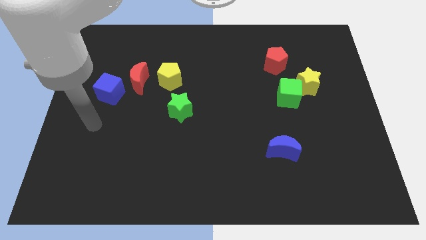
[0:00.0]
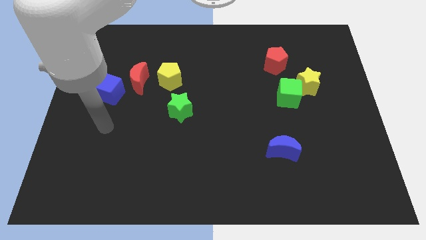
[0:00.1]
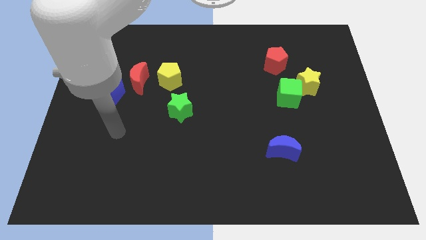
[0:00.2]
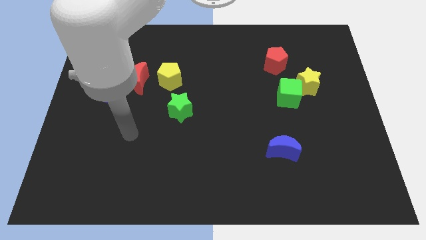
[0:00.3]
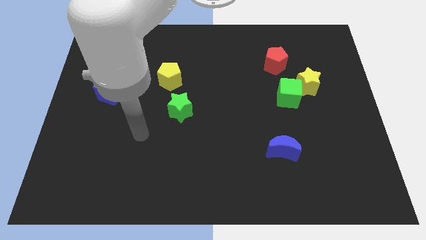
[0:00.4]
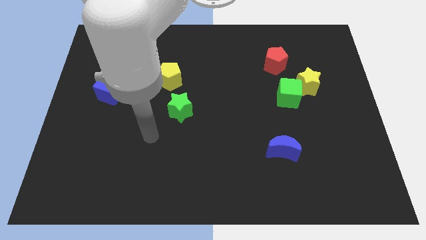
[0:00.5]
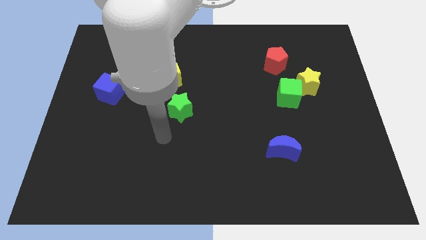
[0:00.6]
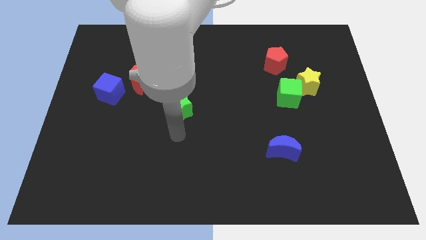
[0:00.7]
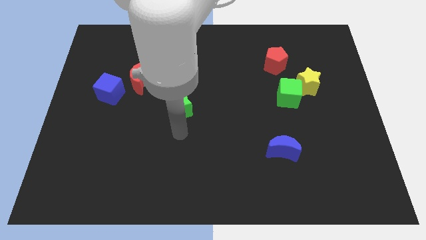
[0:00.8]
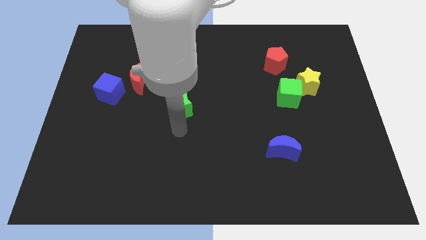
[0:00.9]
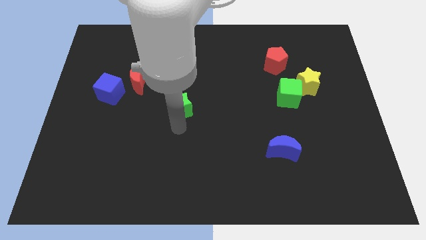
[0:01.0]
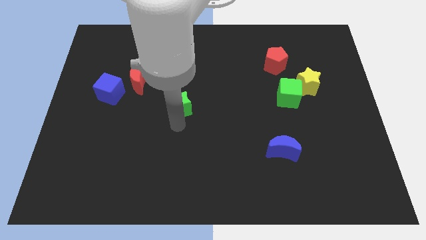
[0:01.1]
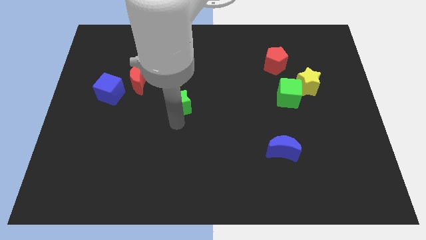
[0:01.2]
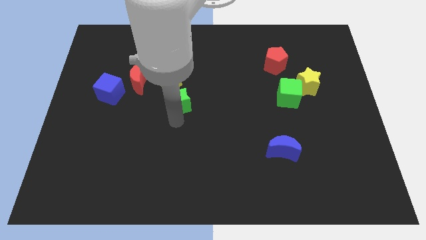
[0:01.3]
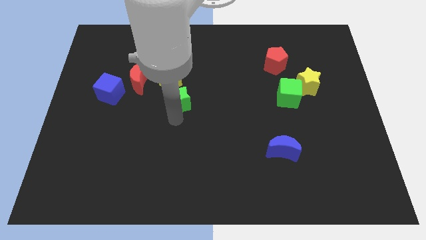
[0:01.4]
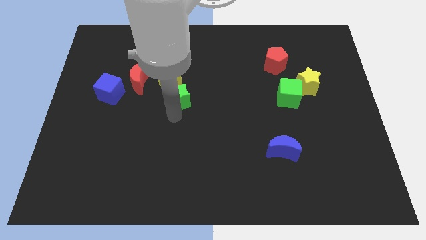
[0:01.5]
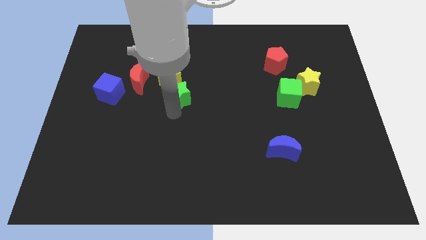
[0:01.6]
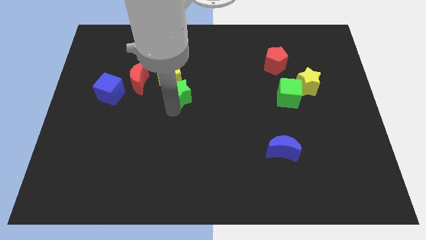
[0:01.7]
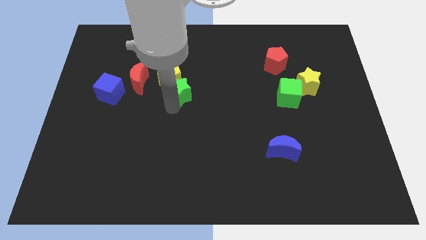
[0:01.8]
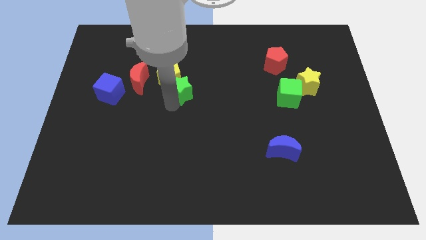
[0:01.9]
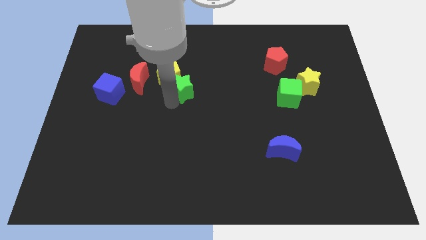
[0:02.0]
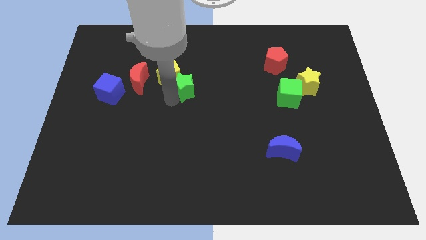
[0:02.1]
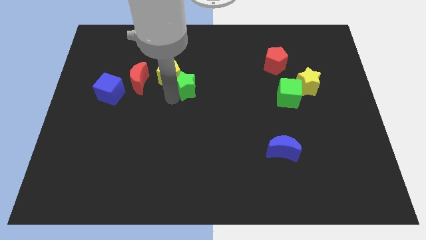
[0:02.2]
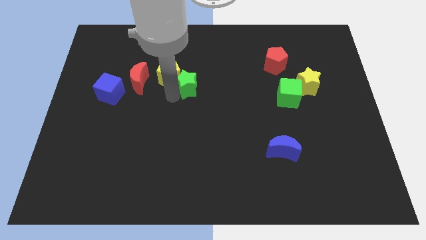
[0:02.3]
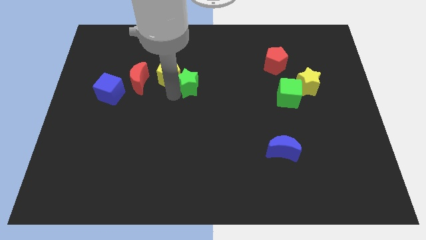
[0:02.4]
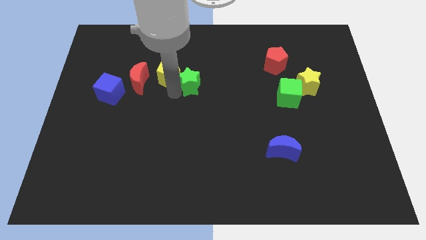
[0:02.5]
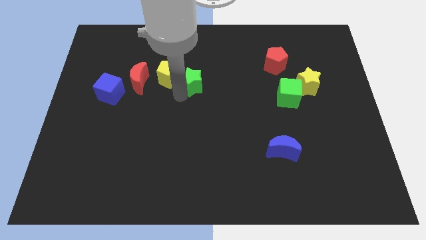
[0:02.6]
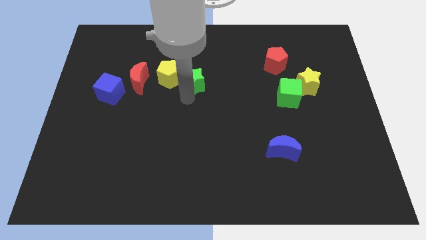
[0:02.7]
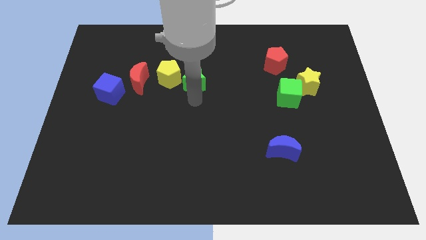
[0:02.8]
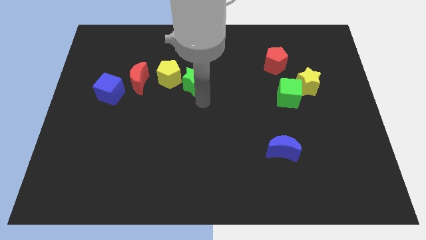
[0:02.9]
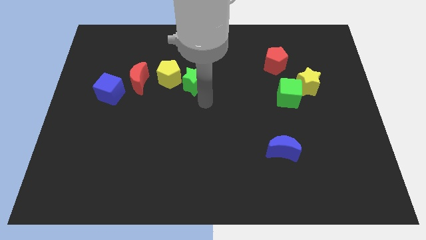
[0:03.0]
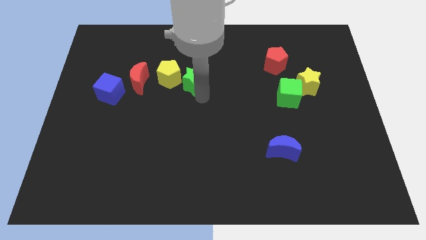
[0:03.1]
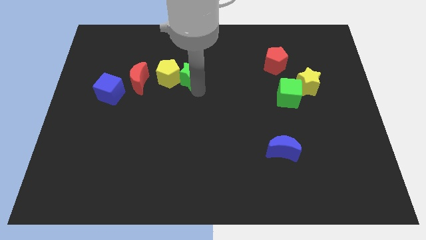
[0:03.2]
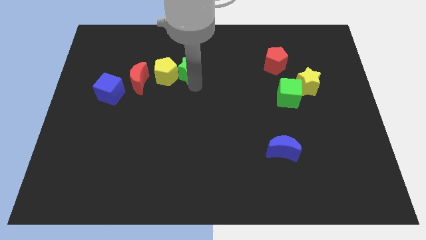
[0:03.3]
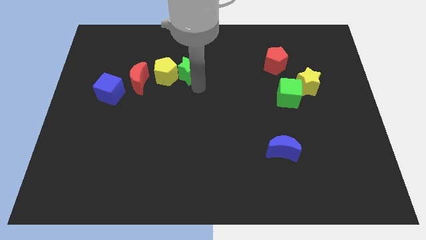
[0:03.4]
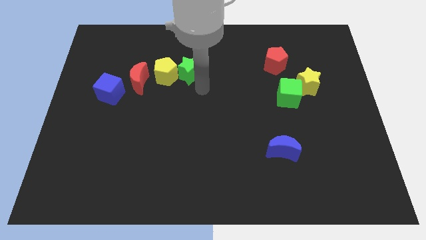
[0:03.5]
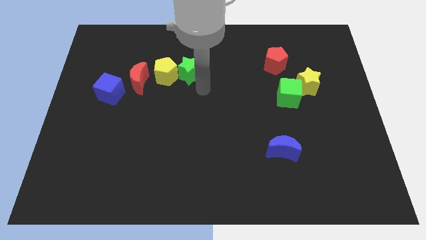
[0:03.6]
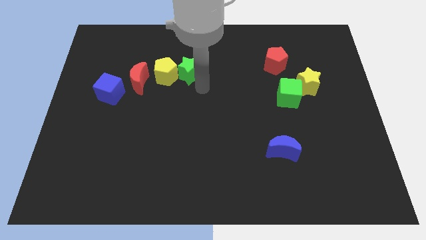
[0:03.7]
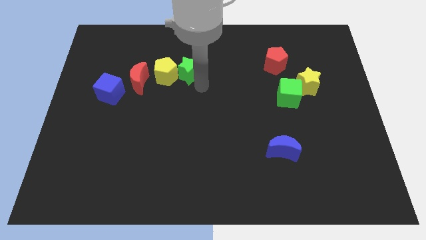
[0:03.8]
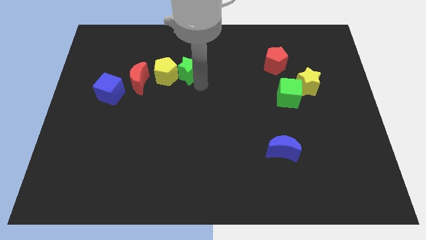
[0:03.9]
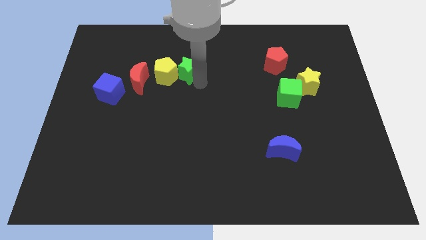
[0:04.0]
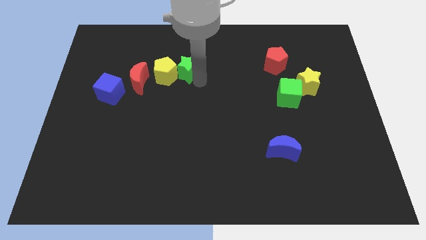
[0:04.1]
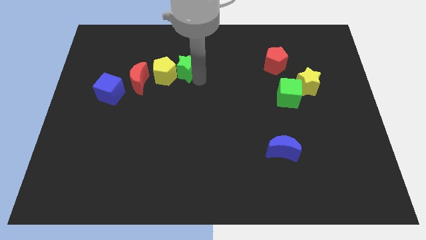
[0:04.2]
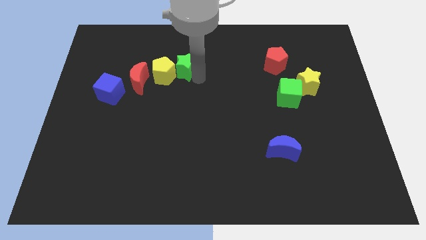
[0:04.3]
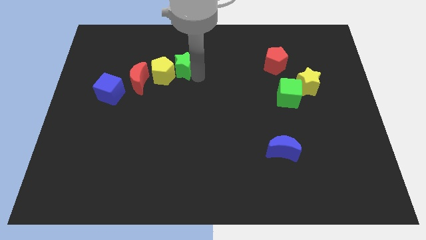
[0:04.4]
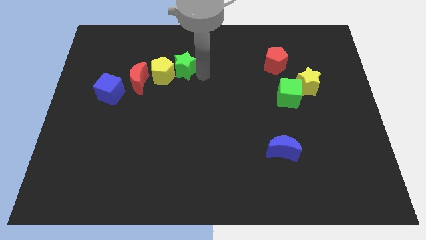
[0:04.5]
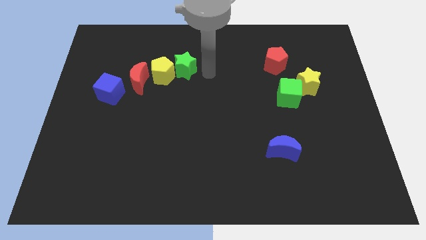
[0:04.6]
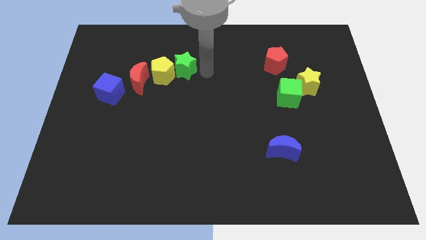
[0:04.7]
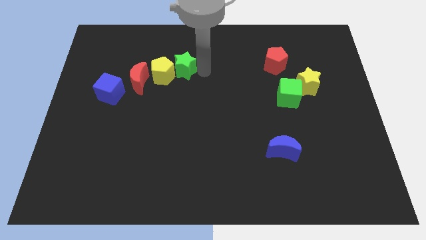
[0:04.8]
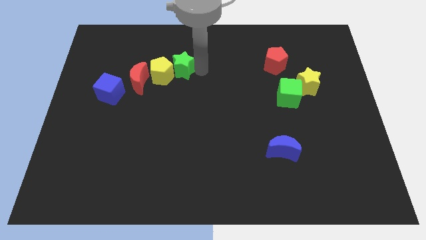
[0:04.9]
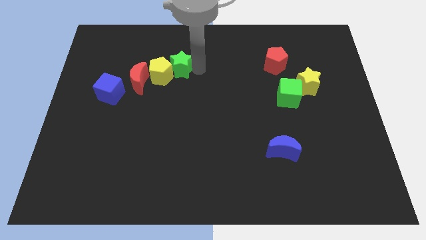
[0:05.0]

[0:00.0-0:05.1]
move the green star to the top right of the red moon

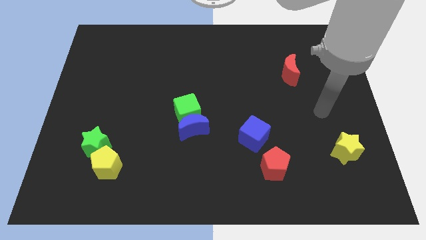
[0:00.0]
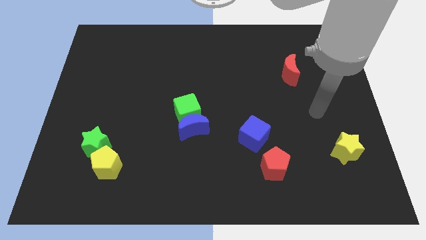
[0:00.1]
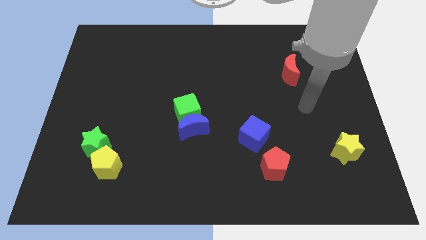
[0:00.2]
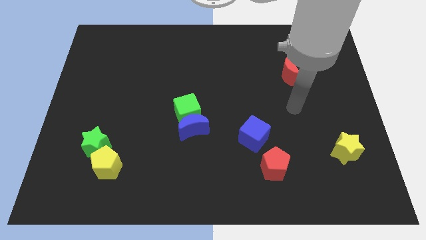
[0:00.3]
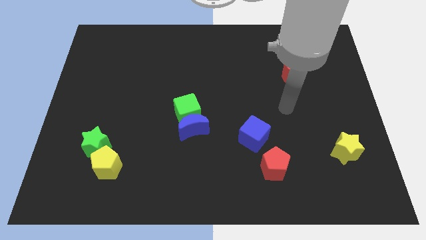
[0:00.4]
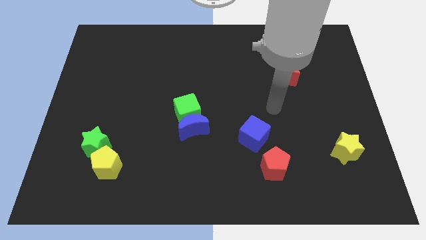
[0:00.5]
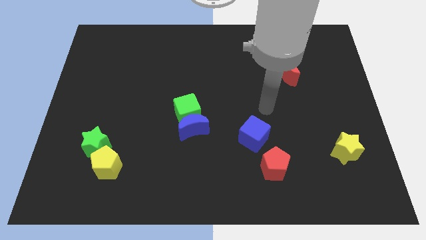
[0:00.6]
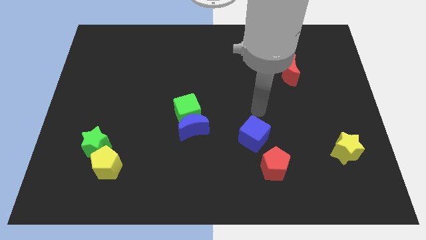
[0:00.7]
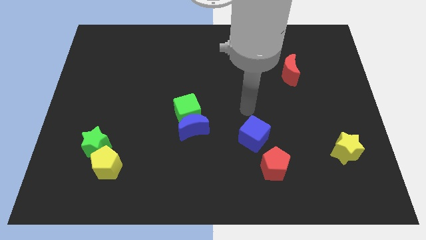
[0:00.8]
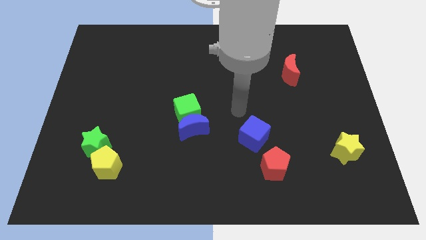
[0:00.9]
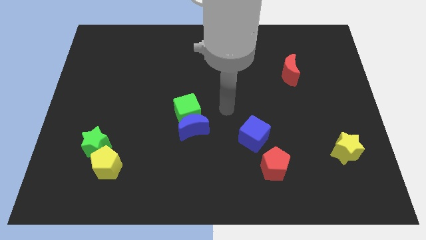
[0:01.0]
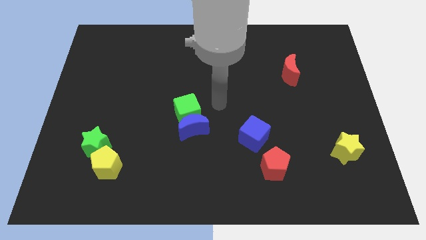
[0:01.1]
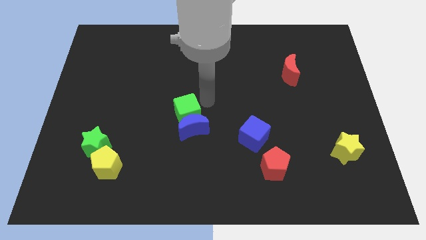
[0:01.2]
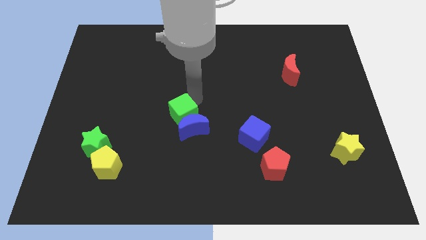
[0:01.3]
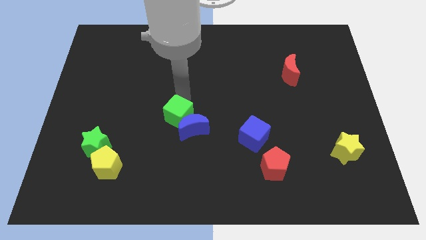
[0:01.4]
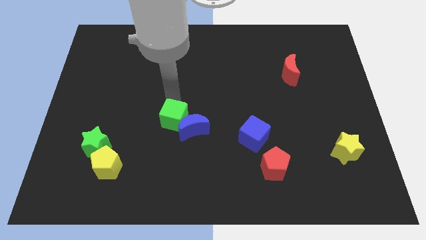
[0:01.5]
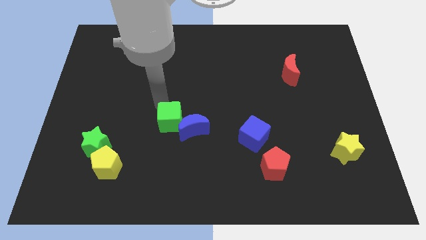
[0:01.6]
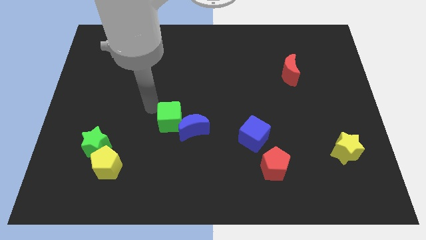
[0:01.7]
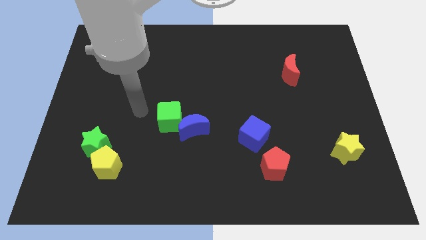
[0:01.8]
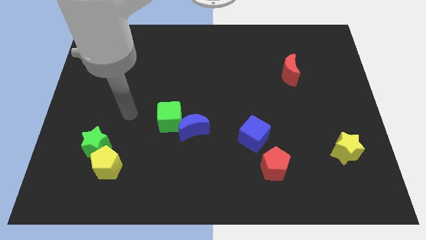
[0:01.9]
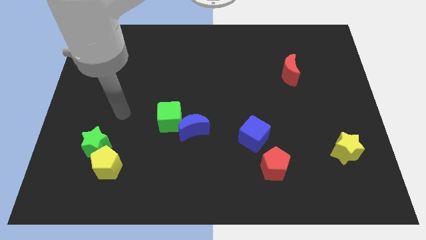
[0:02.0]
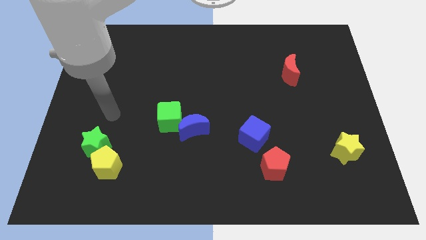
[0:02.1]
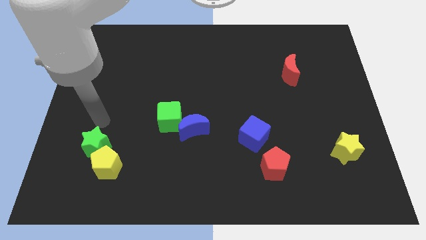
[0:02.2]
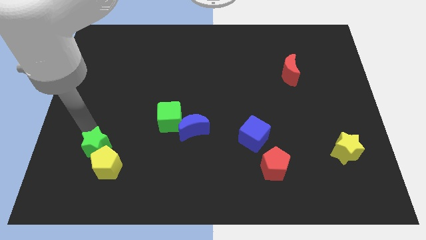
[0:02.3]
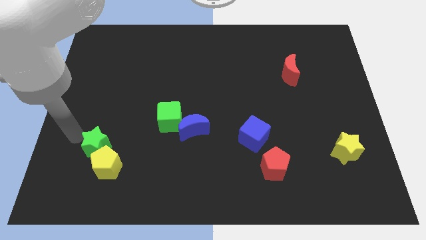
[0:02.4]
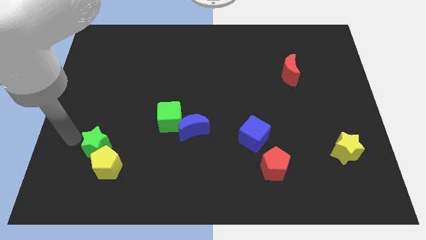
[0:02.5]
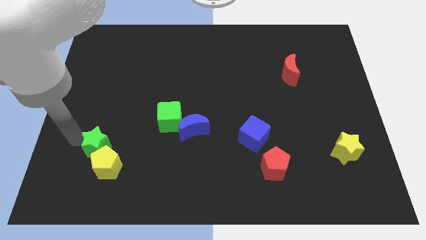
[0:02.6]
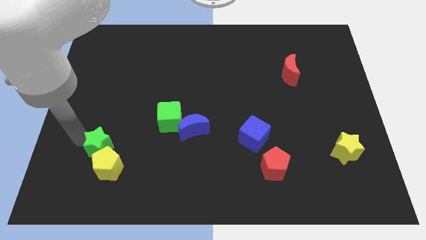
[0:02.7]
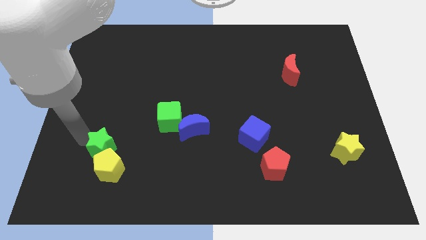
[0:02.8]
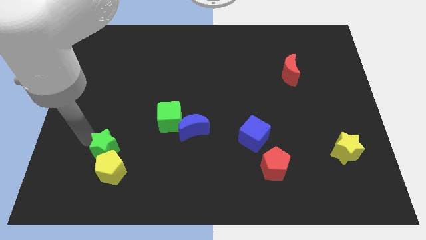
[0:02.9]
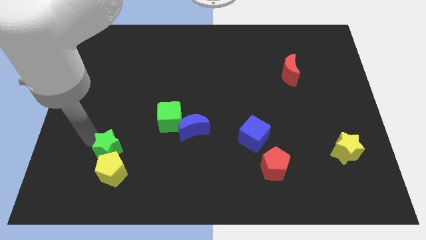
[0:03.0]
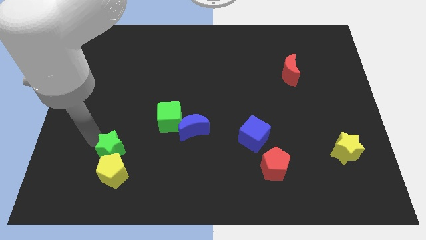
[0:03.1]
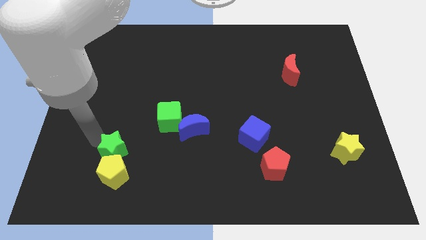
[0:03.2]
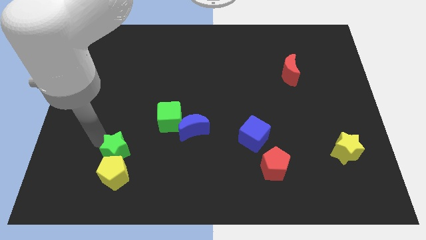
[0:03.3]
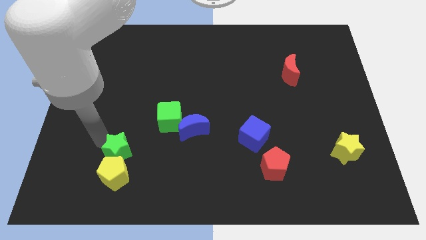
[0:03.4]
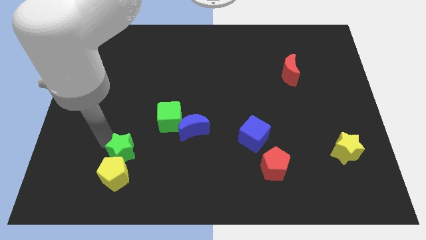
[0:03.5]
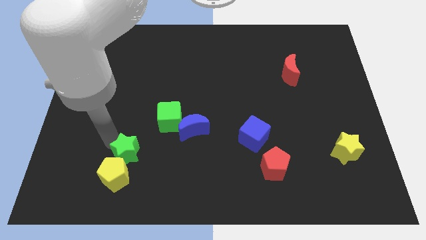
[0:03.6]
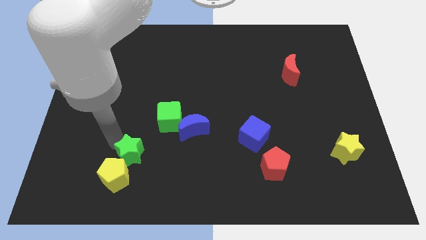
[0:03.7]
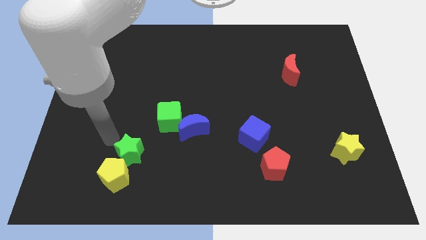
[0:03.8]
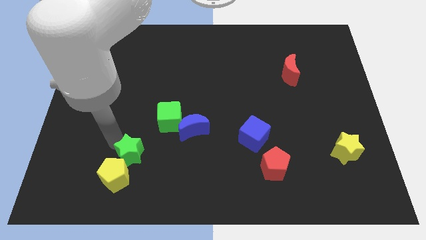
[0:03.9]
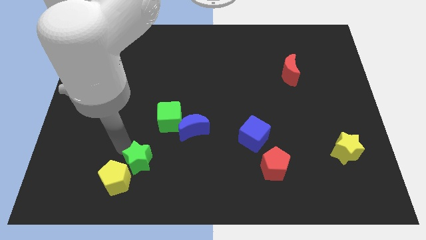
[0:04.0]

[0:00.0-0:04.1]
push the green star just right of the yellow pentagon
